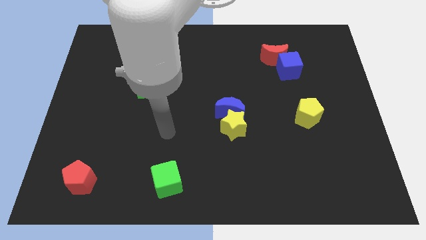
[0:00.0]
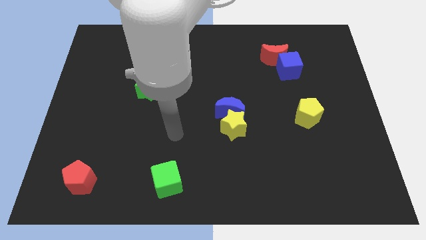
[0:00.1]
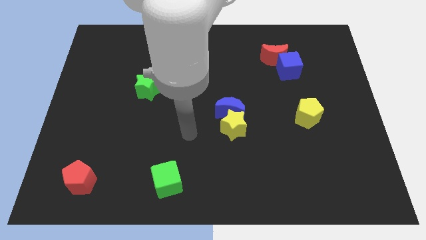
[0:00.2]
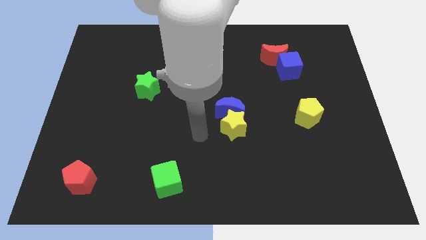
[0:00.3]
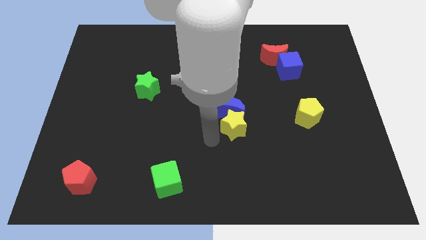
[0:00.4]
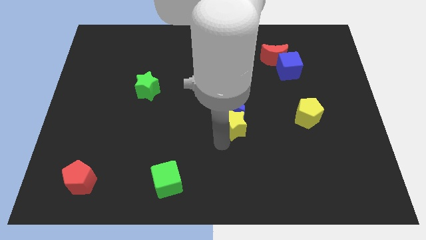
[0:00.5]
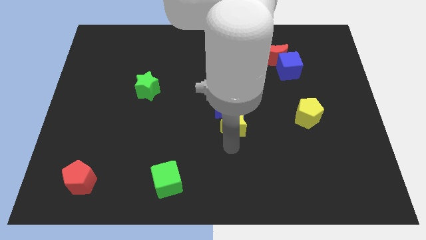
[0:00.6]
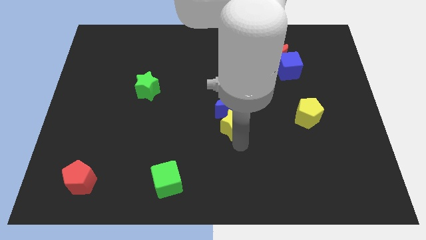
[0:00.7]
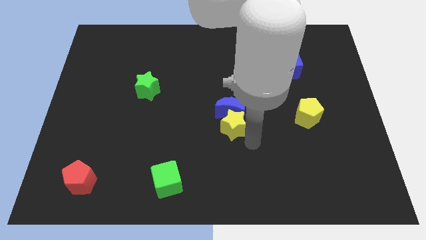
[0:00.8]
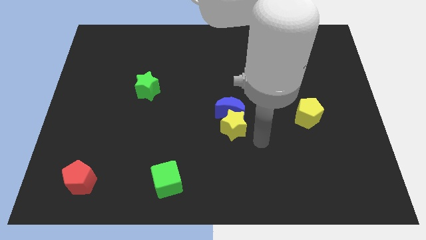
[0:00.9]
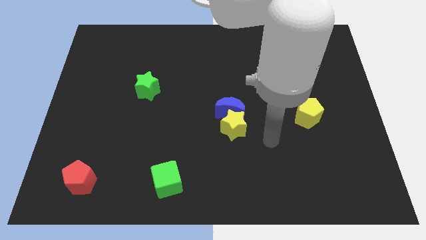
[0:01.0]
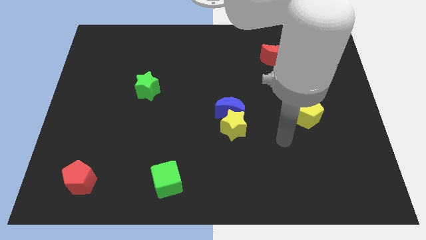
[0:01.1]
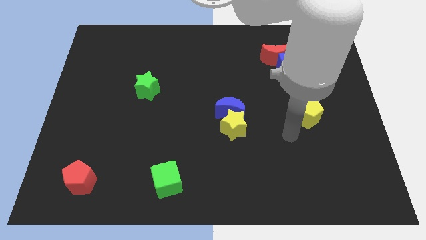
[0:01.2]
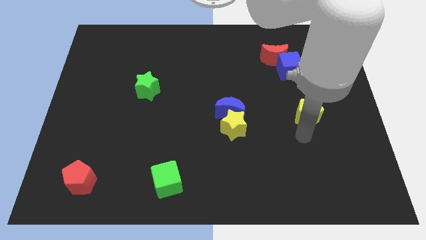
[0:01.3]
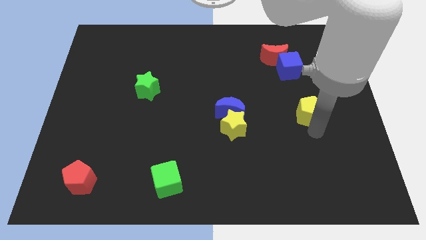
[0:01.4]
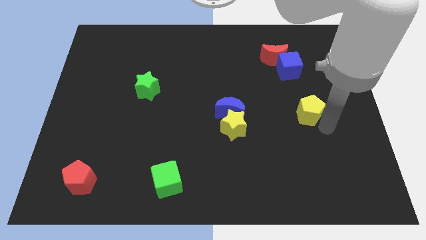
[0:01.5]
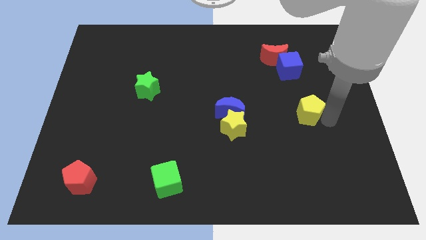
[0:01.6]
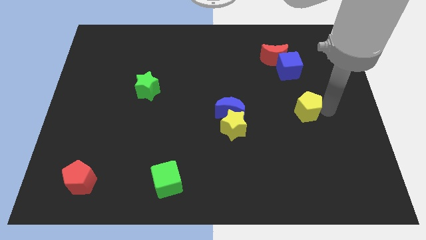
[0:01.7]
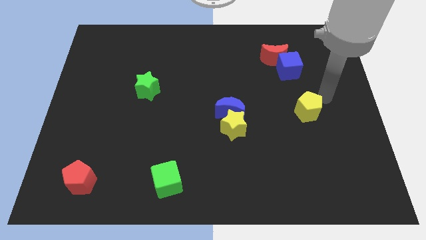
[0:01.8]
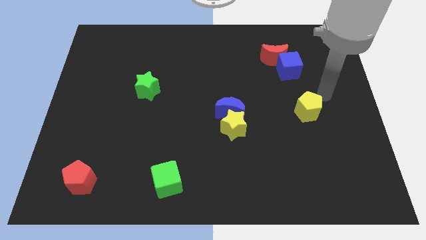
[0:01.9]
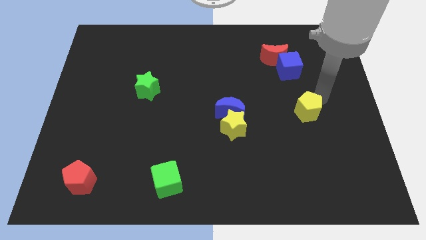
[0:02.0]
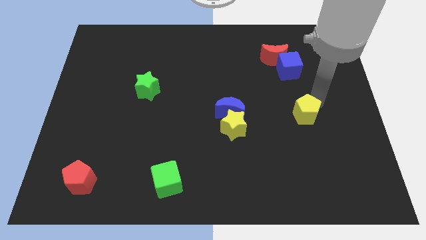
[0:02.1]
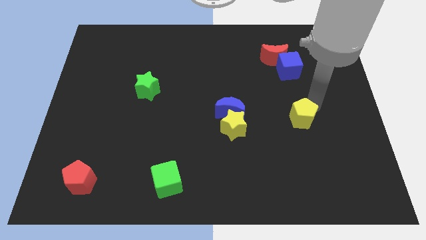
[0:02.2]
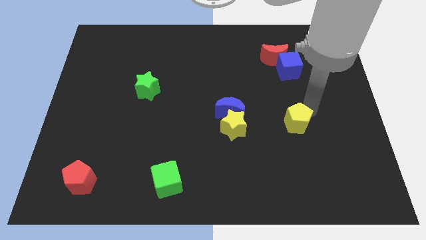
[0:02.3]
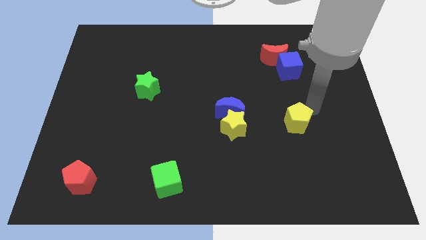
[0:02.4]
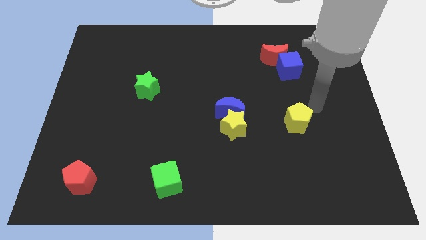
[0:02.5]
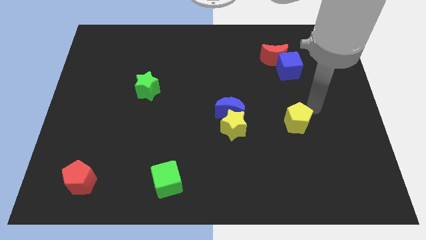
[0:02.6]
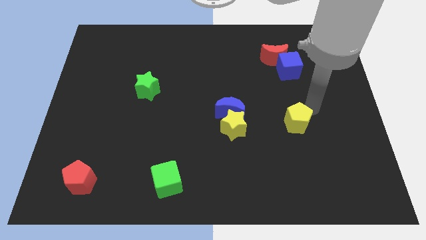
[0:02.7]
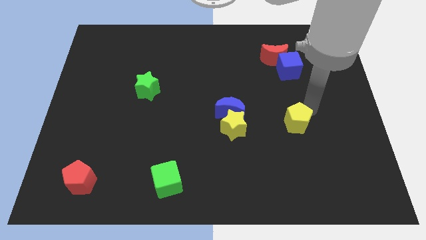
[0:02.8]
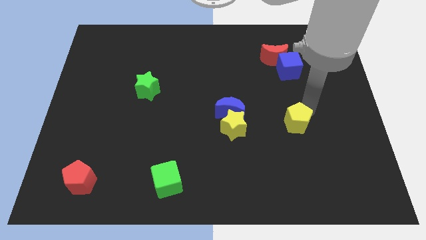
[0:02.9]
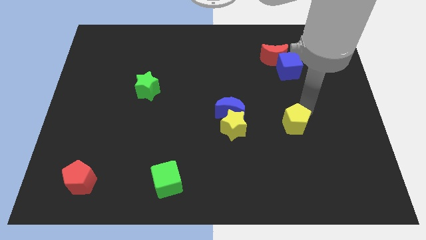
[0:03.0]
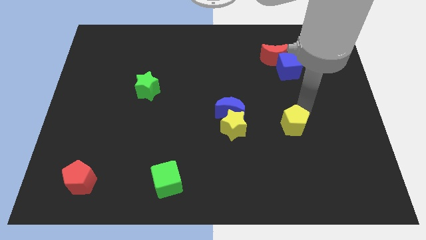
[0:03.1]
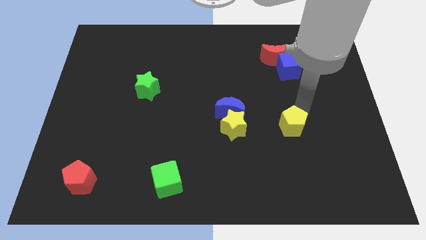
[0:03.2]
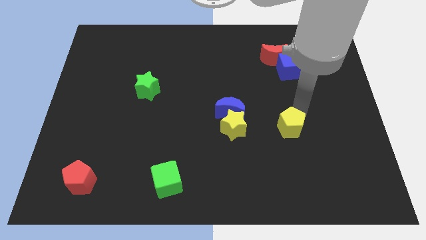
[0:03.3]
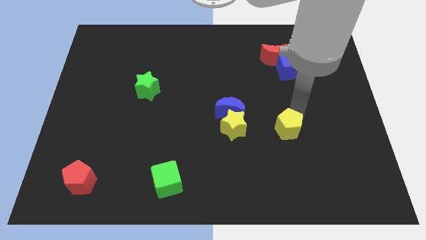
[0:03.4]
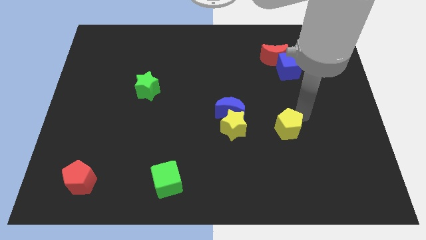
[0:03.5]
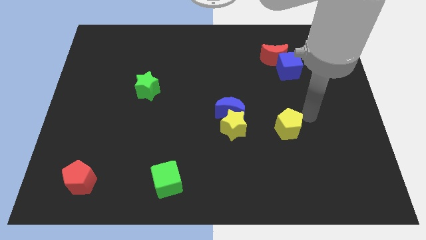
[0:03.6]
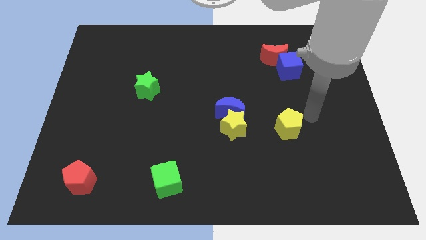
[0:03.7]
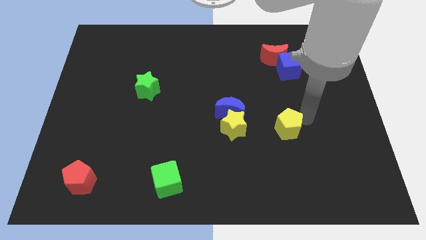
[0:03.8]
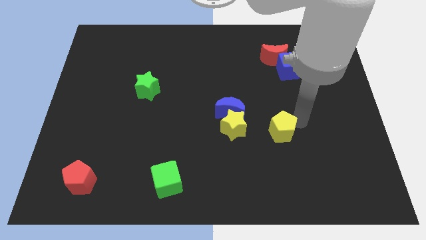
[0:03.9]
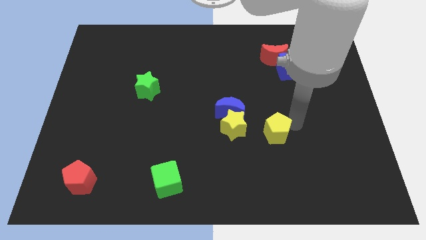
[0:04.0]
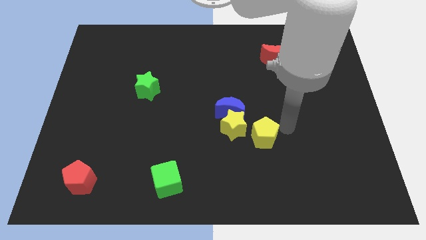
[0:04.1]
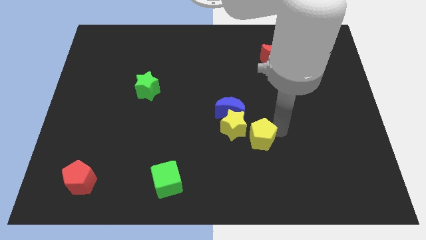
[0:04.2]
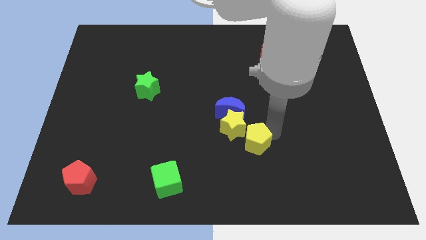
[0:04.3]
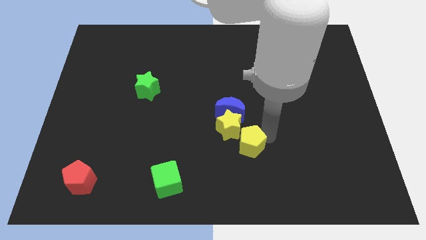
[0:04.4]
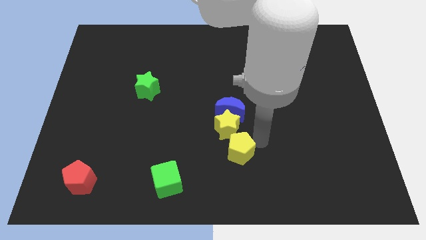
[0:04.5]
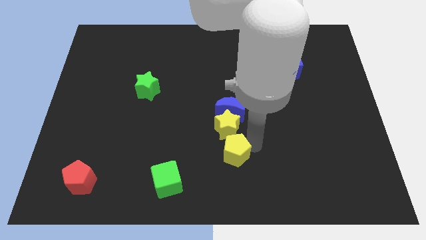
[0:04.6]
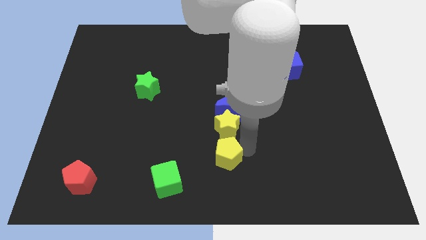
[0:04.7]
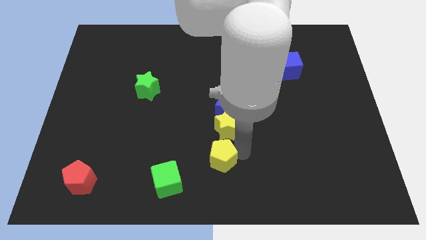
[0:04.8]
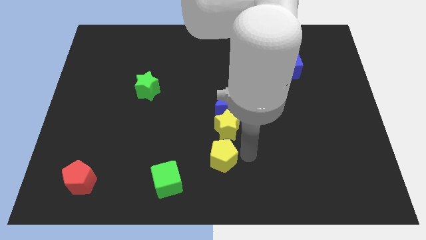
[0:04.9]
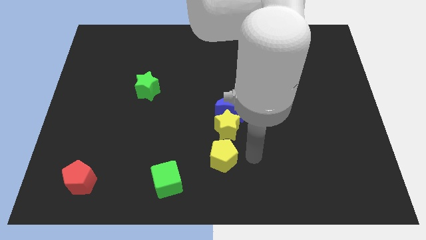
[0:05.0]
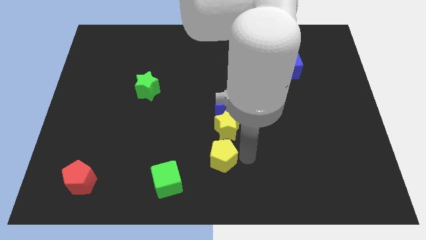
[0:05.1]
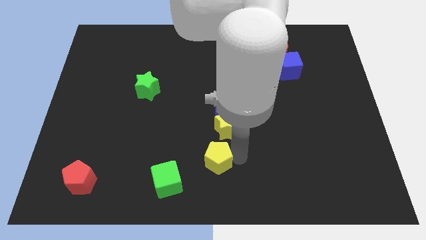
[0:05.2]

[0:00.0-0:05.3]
slide the yellow pentagon diagonally up and to the right of the green cube

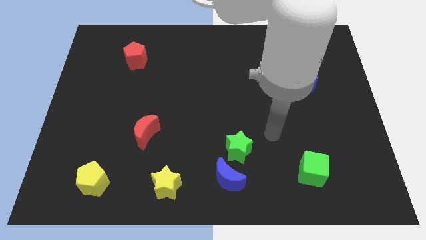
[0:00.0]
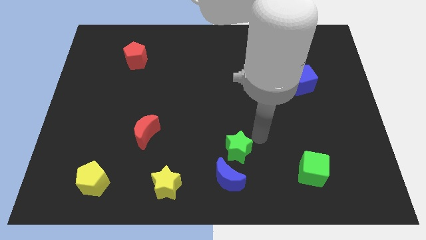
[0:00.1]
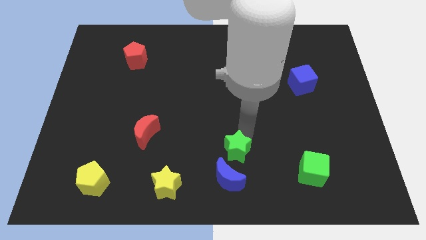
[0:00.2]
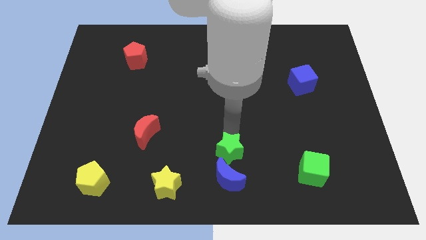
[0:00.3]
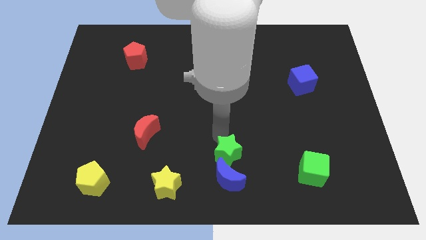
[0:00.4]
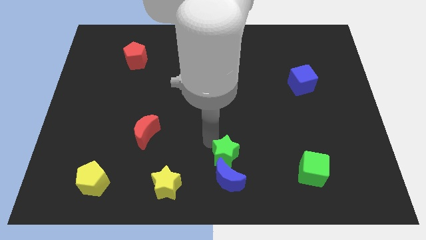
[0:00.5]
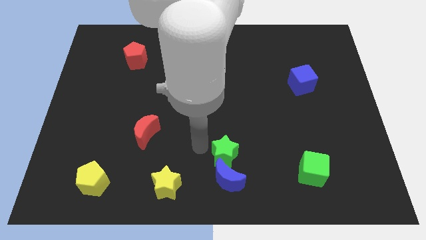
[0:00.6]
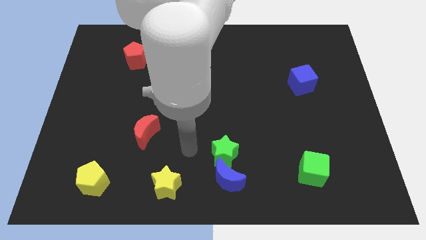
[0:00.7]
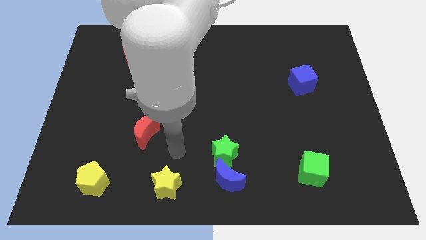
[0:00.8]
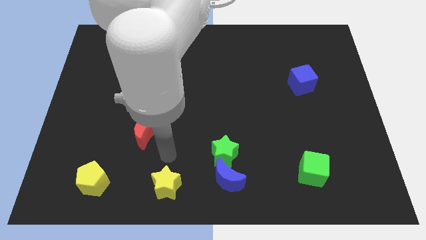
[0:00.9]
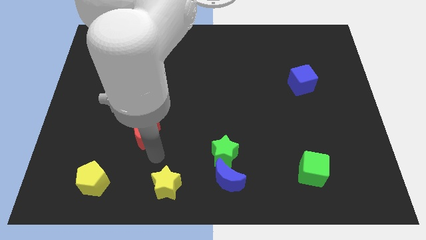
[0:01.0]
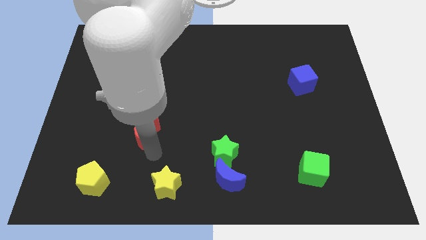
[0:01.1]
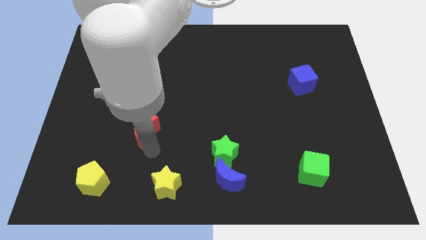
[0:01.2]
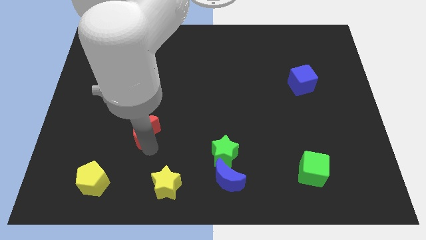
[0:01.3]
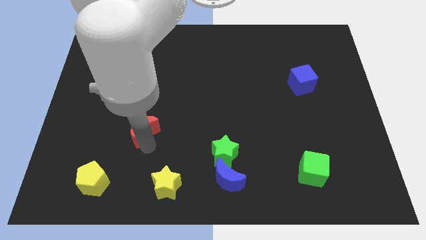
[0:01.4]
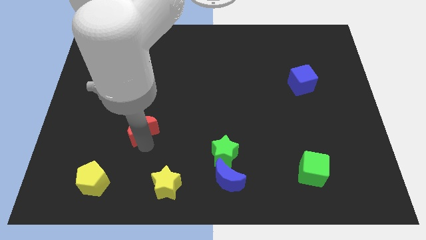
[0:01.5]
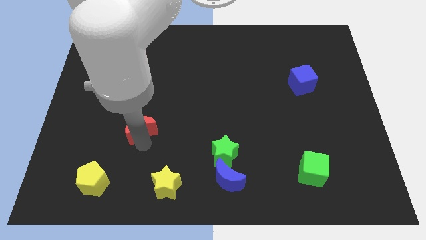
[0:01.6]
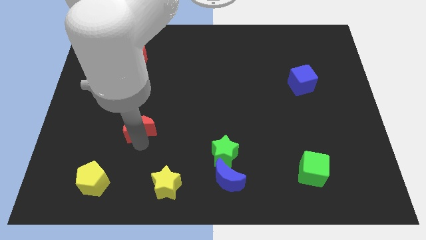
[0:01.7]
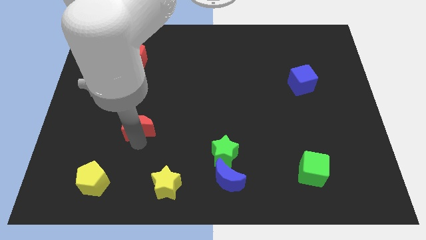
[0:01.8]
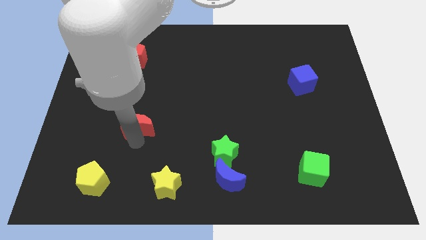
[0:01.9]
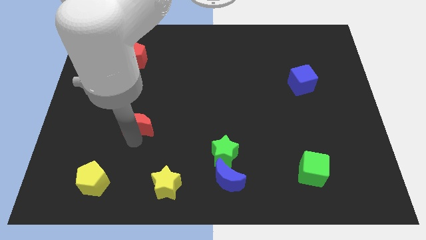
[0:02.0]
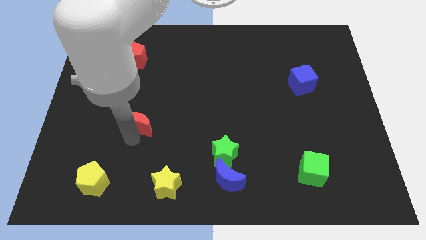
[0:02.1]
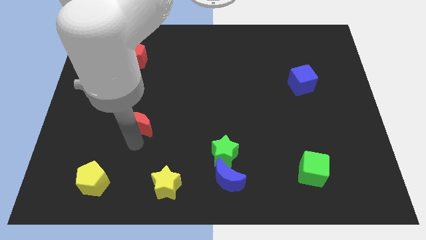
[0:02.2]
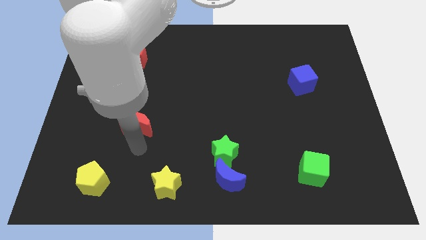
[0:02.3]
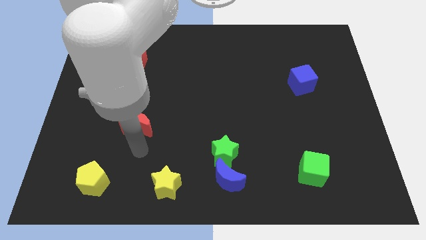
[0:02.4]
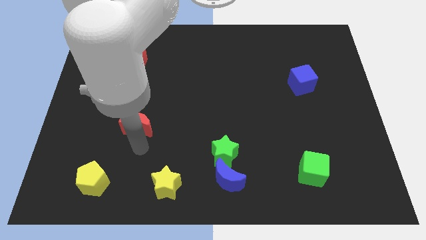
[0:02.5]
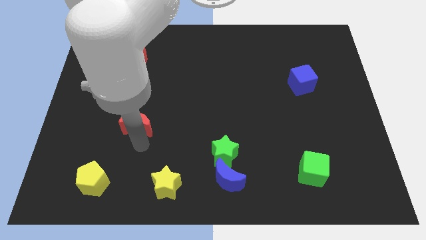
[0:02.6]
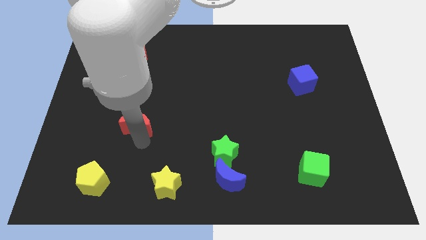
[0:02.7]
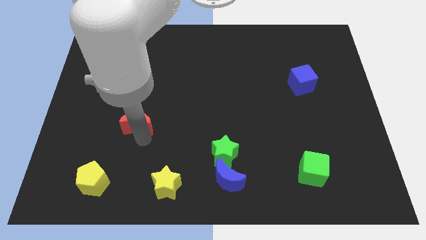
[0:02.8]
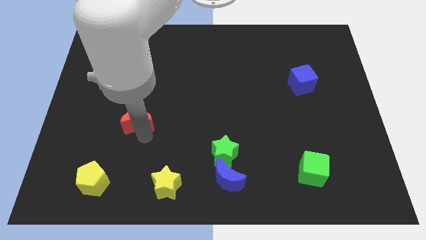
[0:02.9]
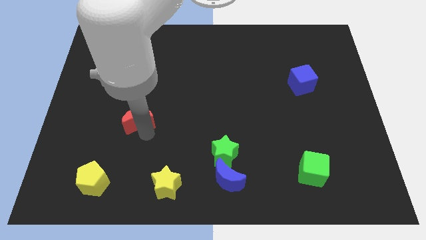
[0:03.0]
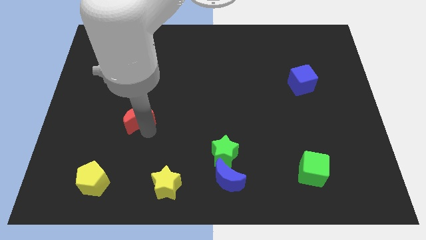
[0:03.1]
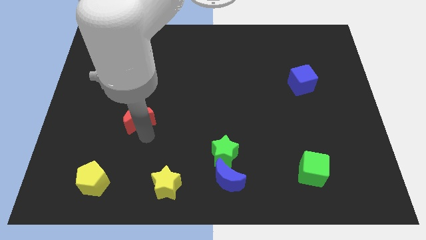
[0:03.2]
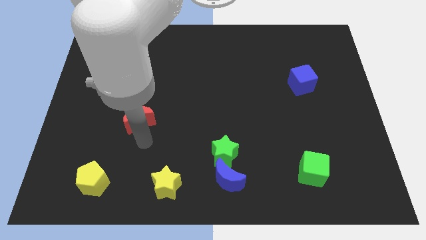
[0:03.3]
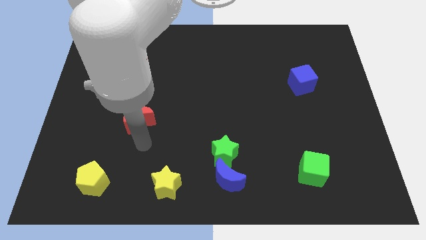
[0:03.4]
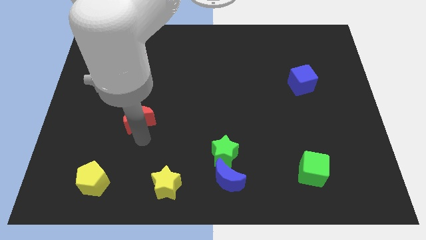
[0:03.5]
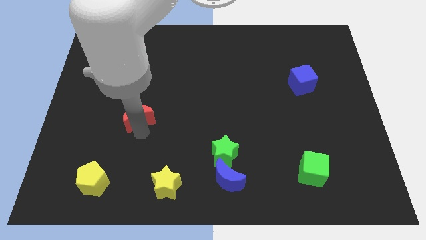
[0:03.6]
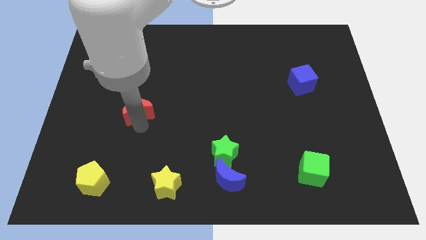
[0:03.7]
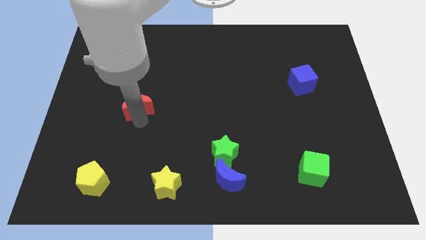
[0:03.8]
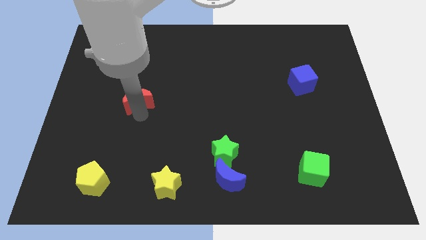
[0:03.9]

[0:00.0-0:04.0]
slide the red moon to the bottom of the red pentagon
